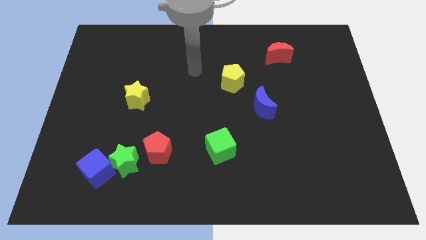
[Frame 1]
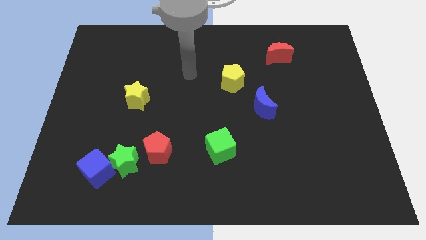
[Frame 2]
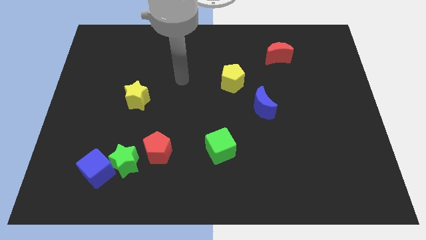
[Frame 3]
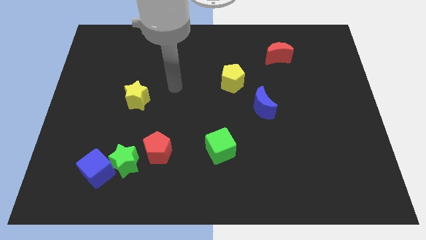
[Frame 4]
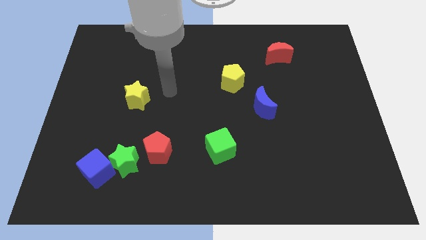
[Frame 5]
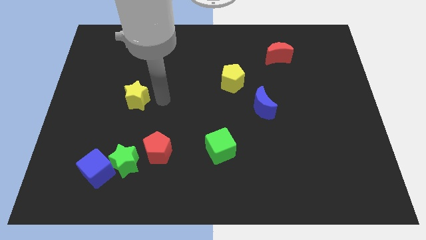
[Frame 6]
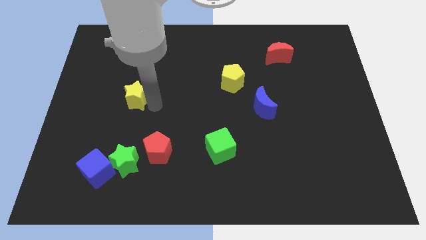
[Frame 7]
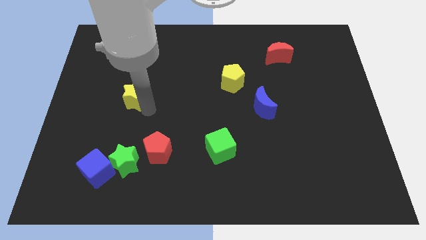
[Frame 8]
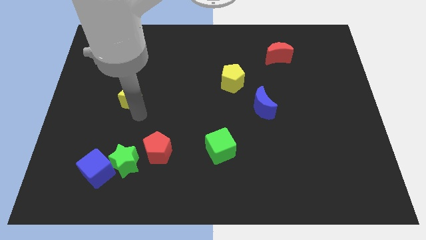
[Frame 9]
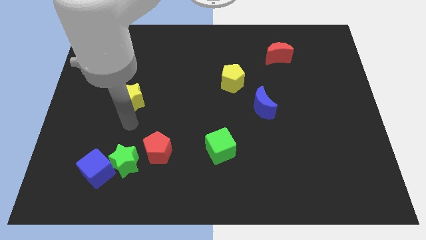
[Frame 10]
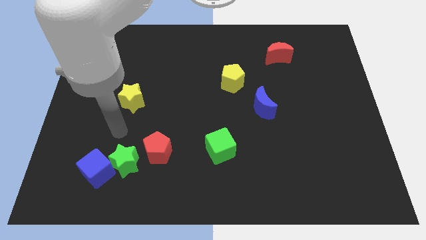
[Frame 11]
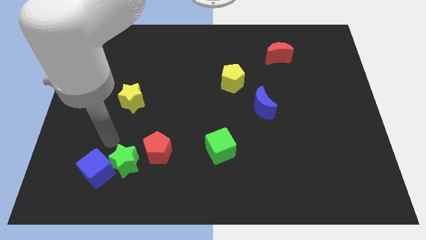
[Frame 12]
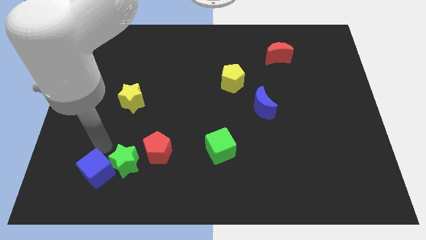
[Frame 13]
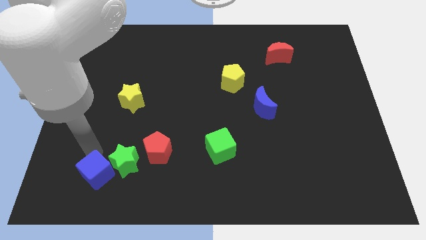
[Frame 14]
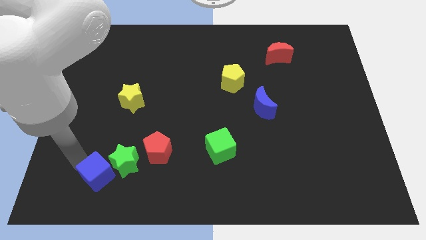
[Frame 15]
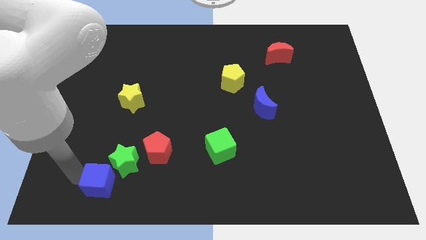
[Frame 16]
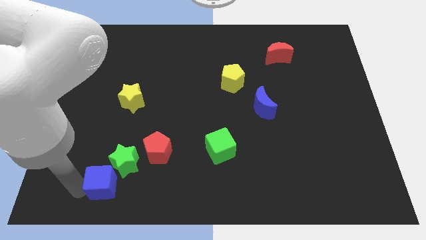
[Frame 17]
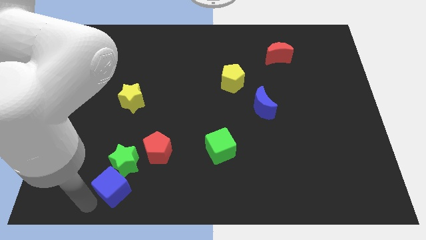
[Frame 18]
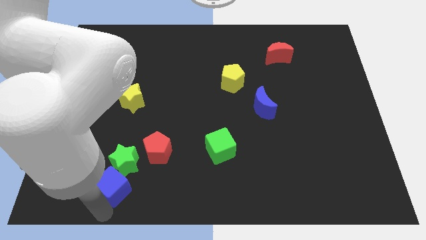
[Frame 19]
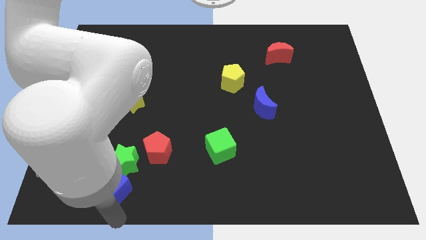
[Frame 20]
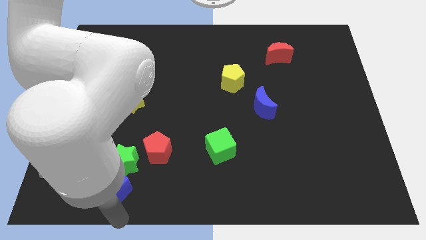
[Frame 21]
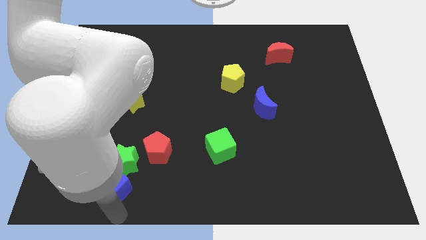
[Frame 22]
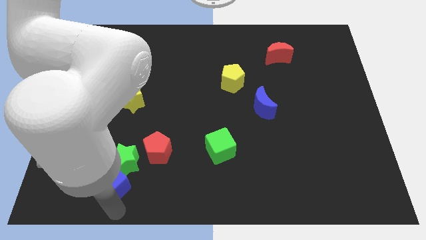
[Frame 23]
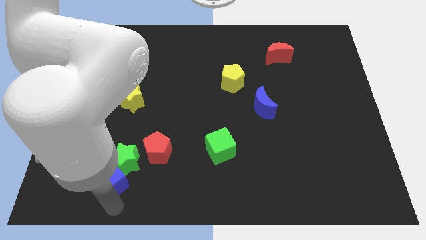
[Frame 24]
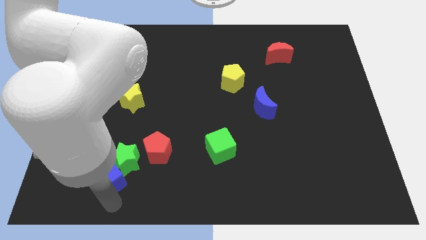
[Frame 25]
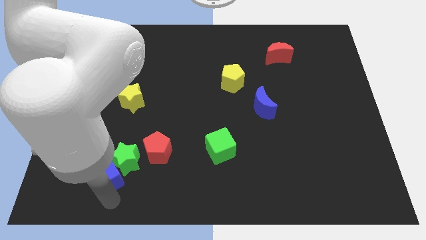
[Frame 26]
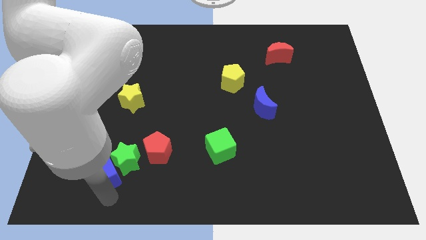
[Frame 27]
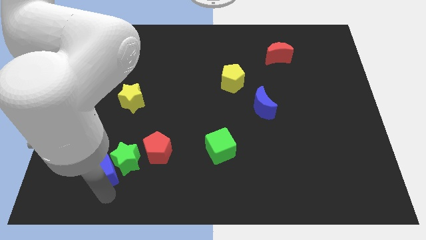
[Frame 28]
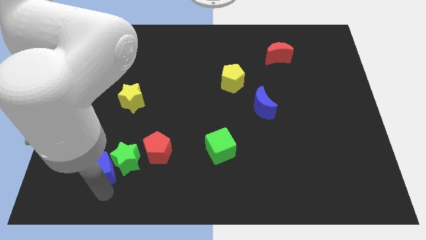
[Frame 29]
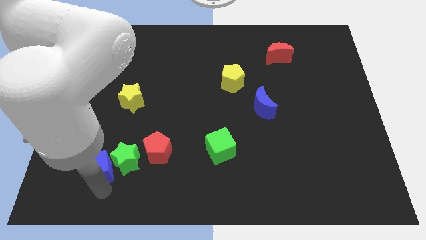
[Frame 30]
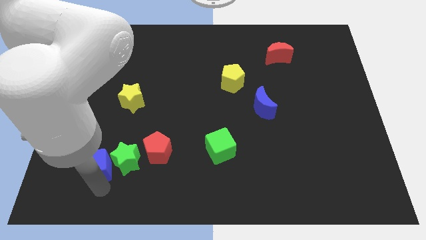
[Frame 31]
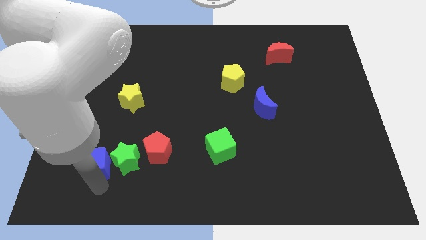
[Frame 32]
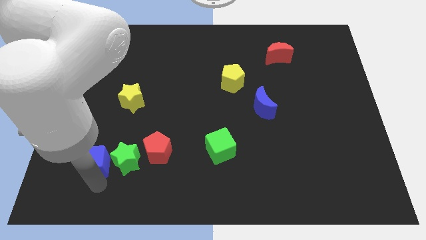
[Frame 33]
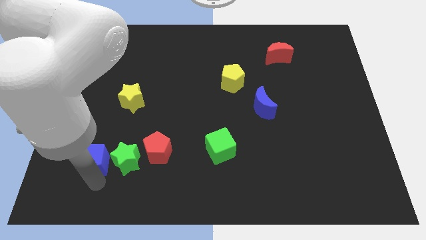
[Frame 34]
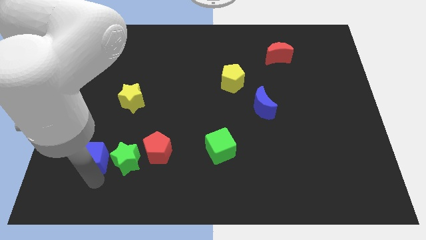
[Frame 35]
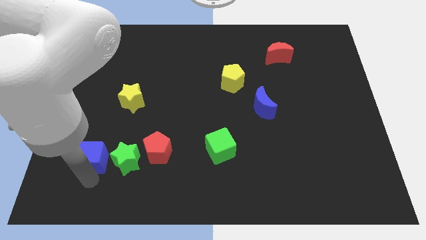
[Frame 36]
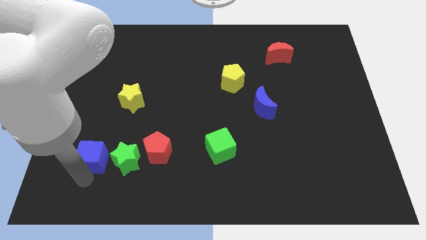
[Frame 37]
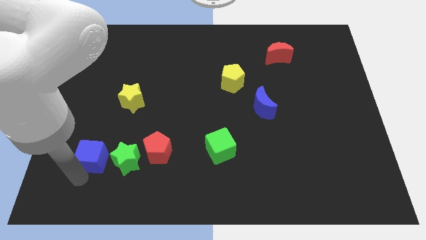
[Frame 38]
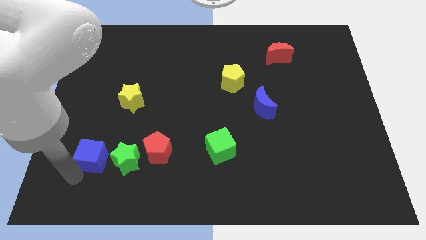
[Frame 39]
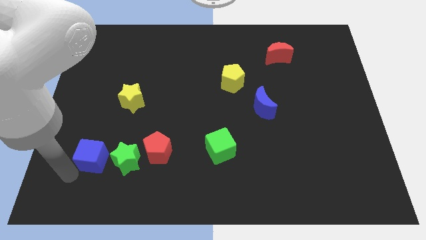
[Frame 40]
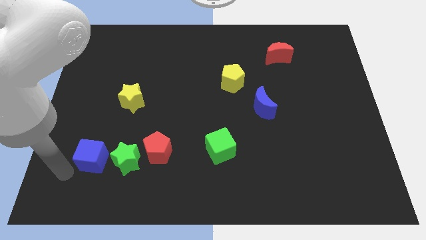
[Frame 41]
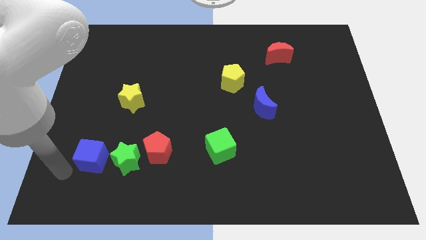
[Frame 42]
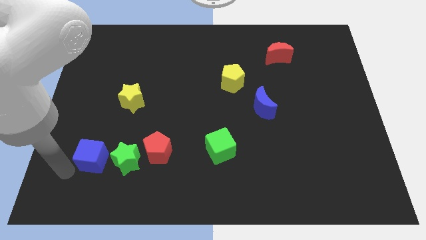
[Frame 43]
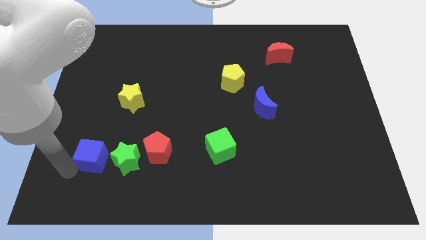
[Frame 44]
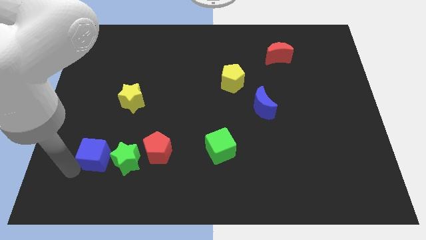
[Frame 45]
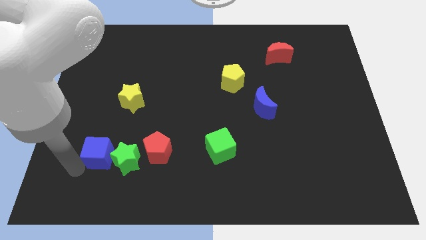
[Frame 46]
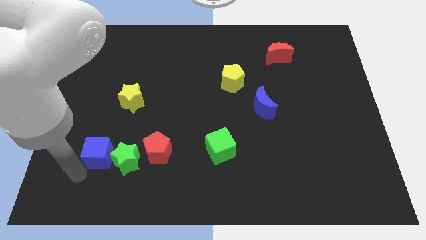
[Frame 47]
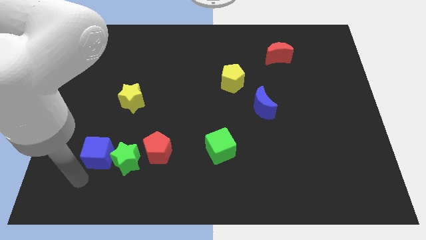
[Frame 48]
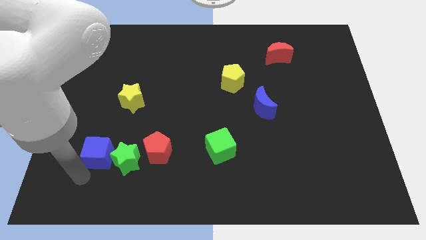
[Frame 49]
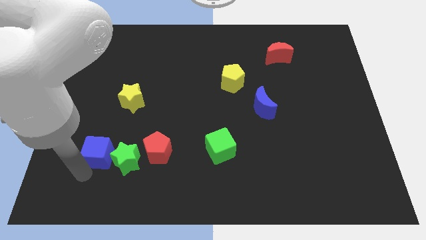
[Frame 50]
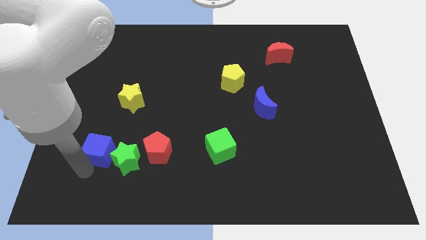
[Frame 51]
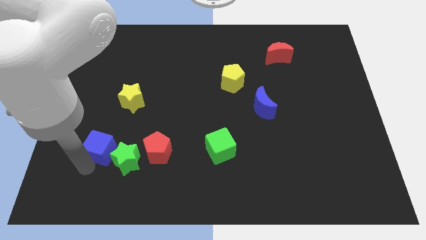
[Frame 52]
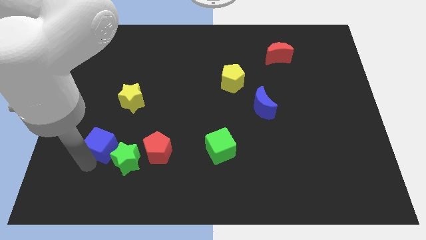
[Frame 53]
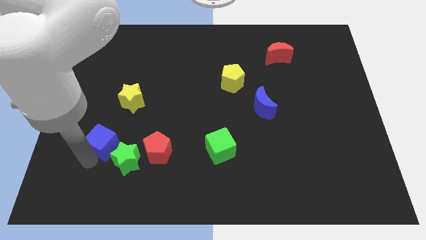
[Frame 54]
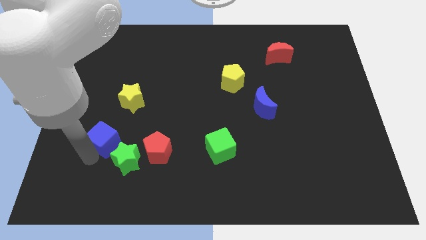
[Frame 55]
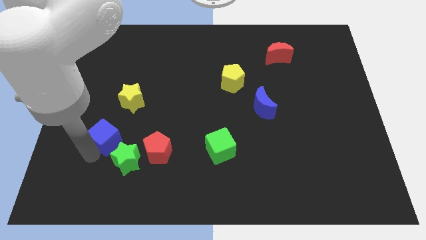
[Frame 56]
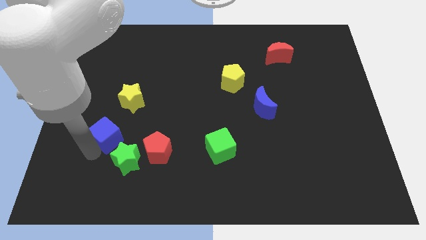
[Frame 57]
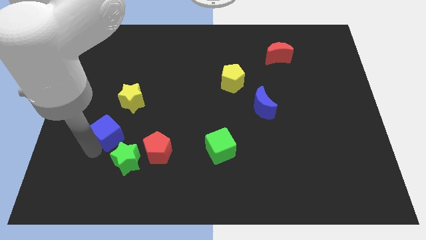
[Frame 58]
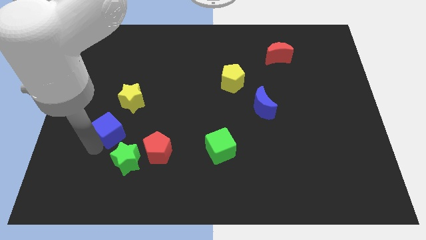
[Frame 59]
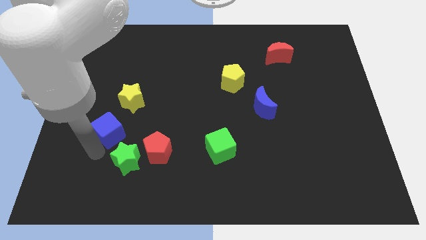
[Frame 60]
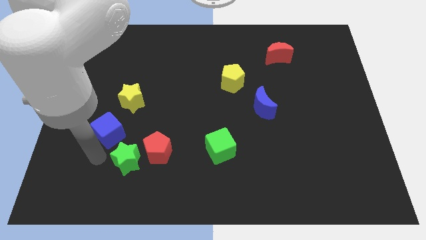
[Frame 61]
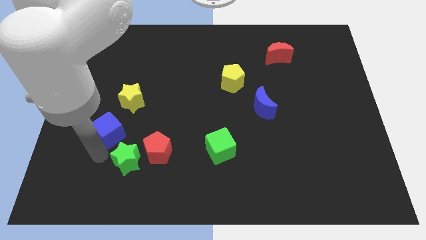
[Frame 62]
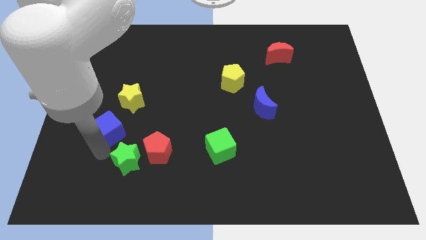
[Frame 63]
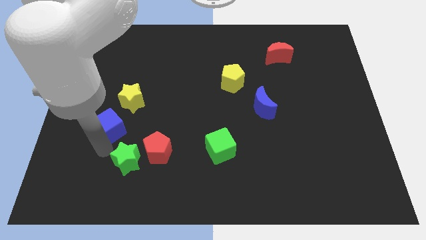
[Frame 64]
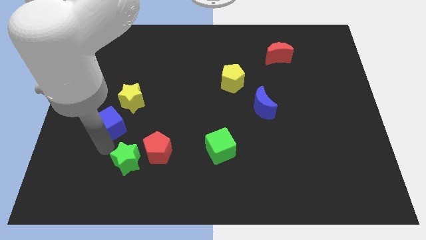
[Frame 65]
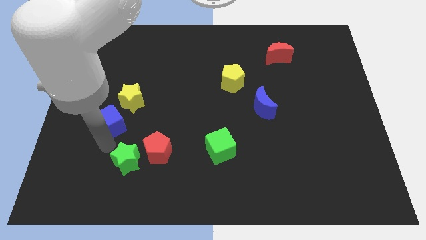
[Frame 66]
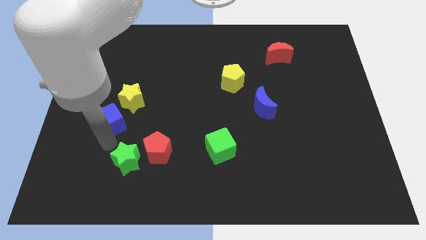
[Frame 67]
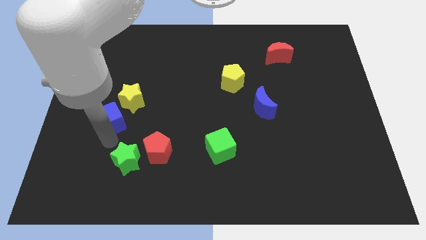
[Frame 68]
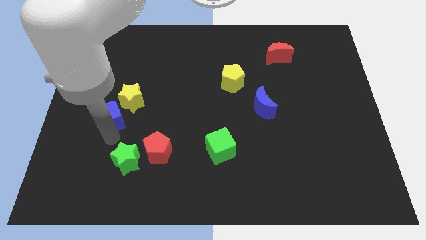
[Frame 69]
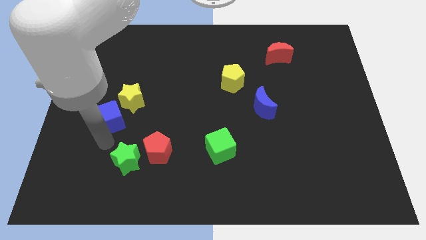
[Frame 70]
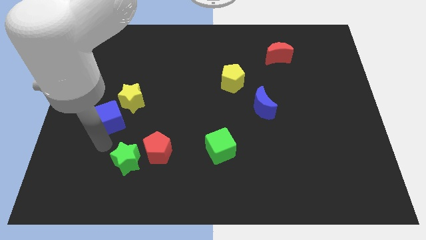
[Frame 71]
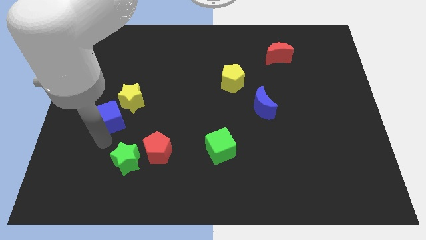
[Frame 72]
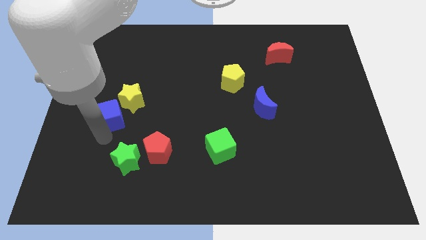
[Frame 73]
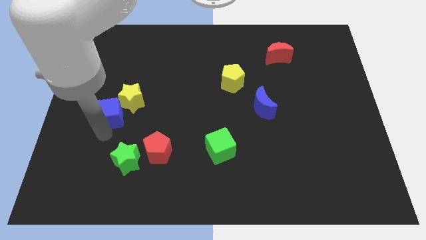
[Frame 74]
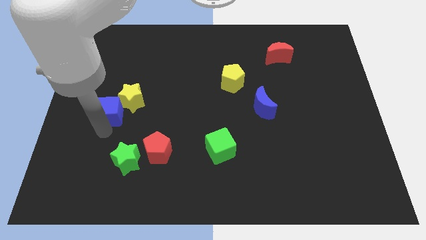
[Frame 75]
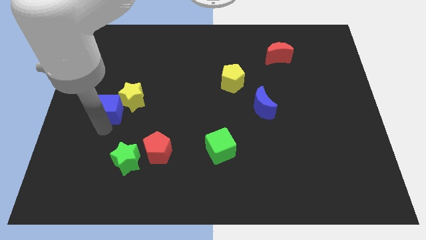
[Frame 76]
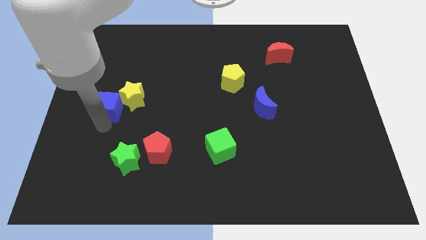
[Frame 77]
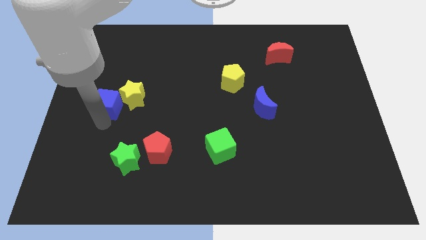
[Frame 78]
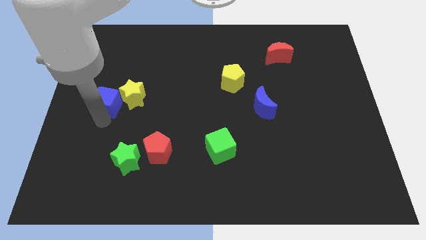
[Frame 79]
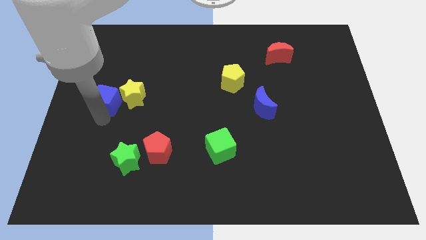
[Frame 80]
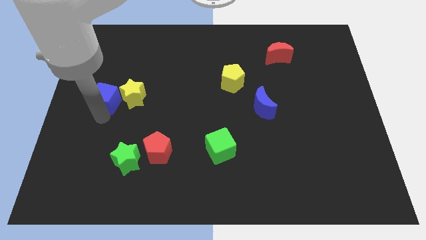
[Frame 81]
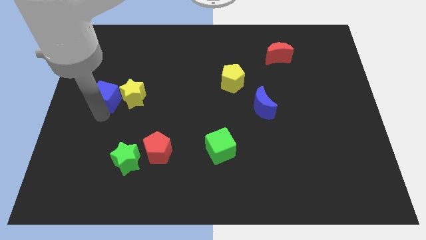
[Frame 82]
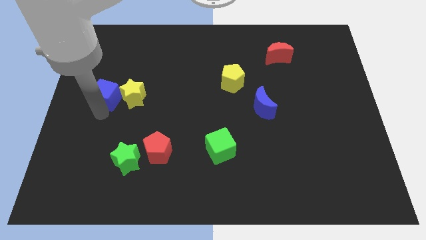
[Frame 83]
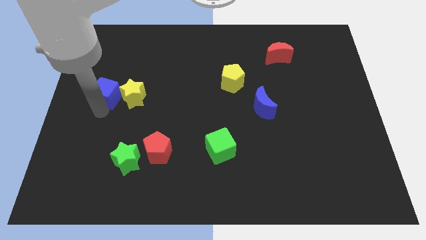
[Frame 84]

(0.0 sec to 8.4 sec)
slide the blue cube upwards
